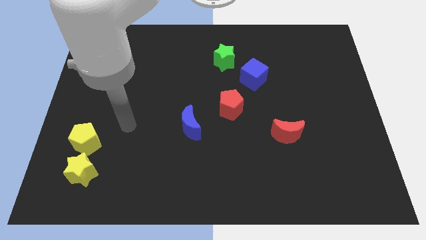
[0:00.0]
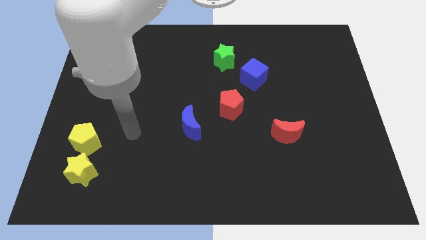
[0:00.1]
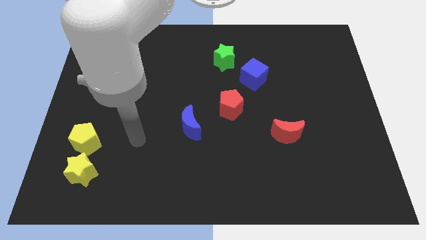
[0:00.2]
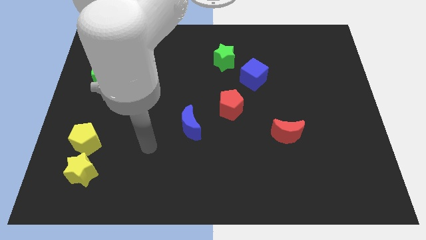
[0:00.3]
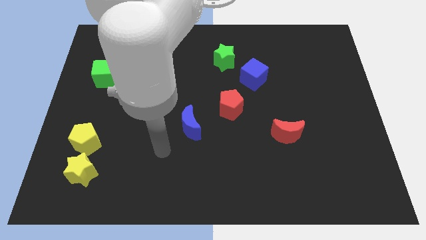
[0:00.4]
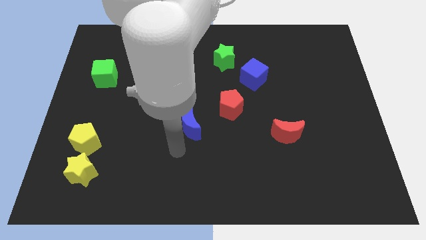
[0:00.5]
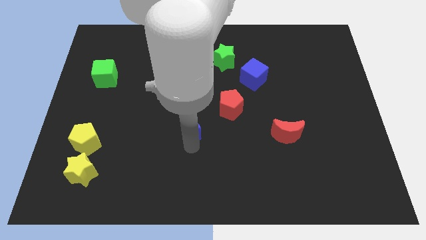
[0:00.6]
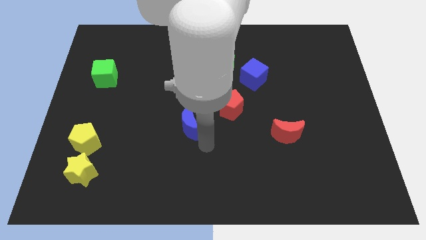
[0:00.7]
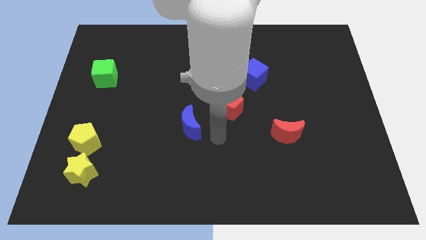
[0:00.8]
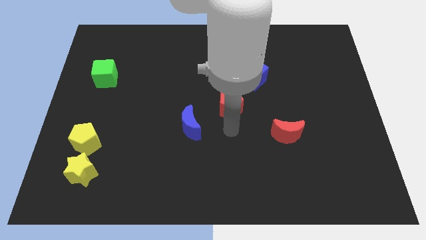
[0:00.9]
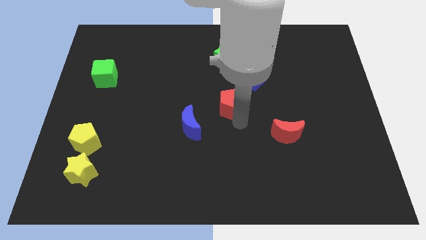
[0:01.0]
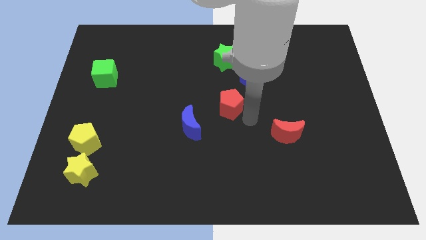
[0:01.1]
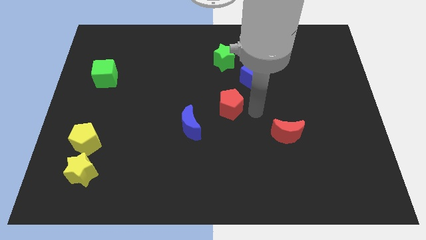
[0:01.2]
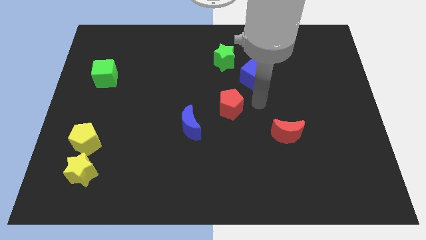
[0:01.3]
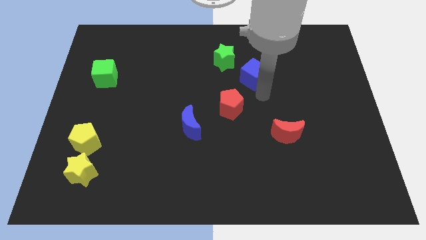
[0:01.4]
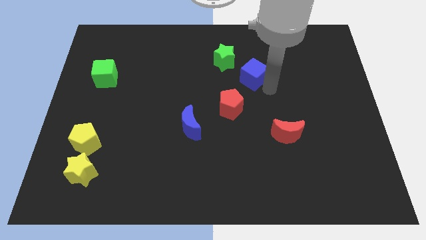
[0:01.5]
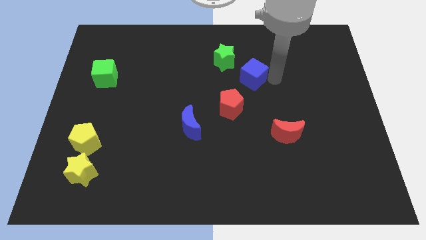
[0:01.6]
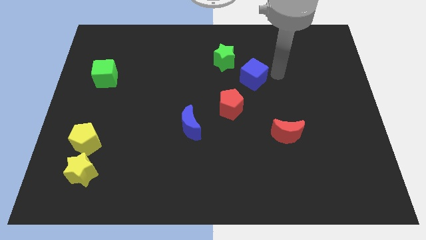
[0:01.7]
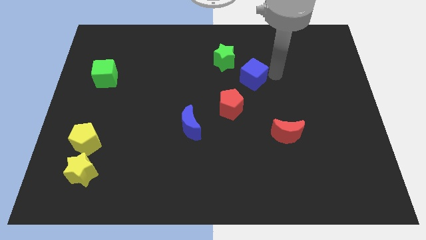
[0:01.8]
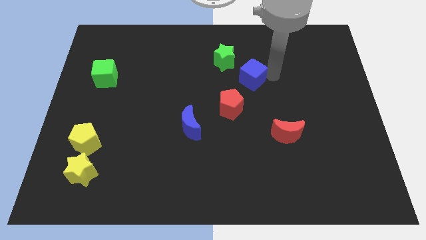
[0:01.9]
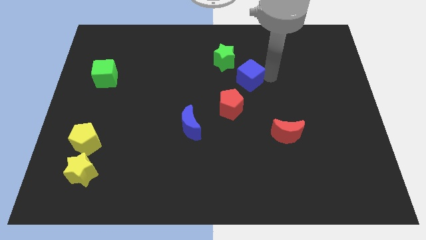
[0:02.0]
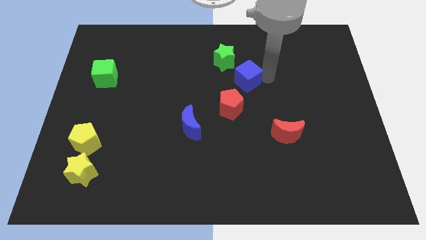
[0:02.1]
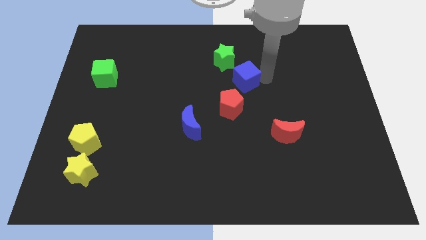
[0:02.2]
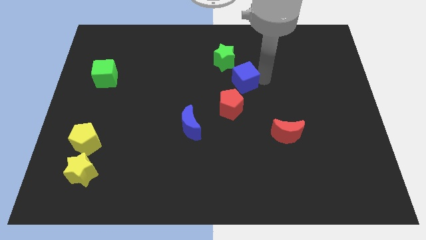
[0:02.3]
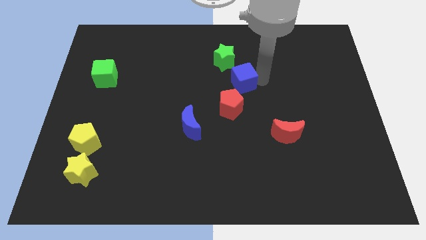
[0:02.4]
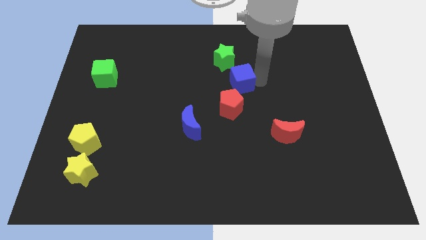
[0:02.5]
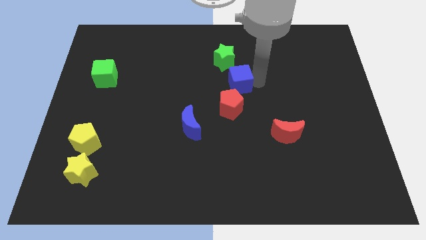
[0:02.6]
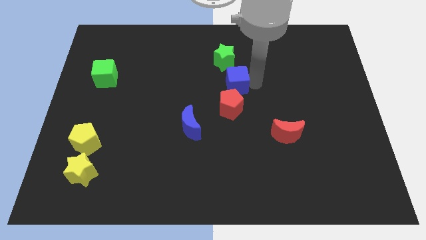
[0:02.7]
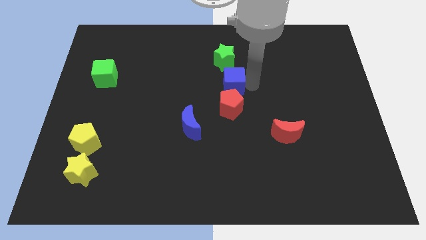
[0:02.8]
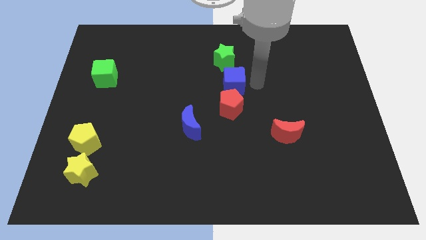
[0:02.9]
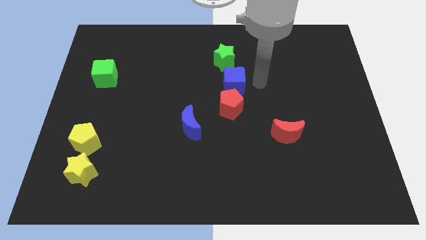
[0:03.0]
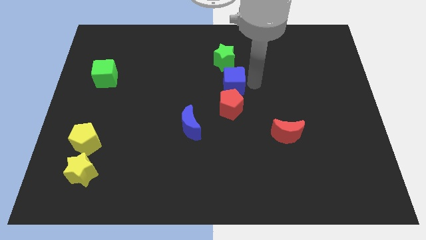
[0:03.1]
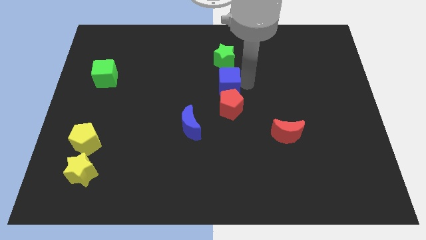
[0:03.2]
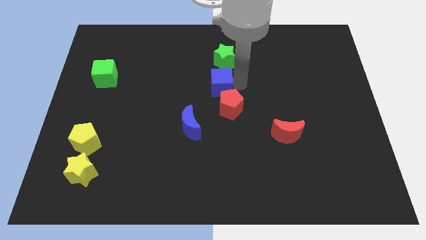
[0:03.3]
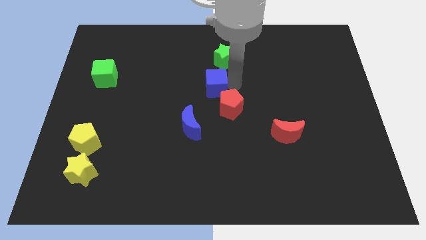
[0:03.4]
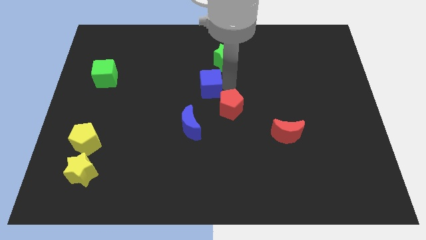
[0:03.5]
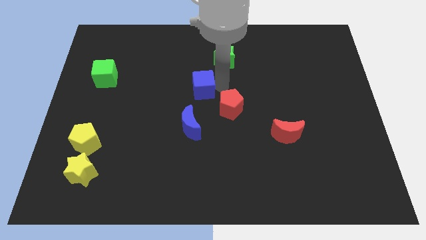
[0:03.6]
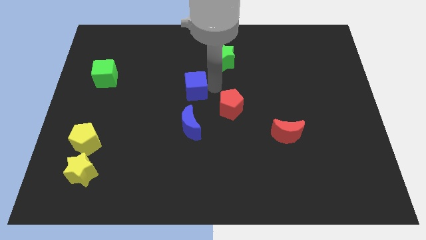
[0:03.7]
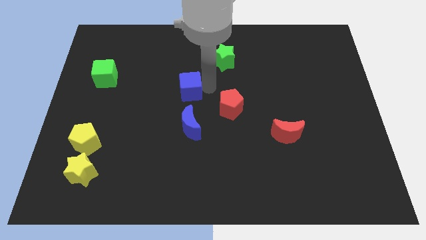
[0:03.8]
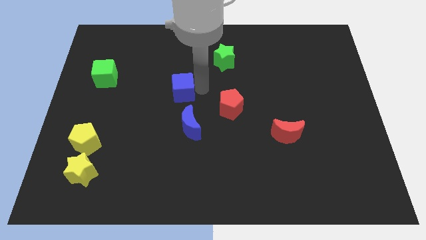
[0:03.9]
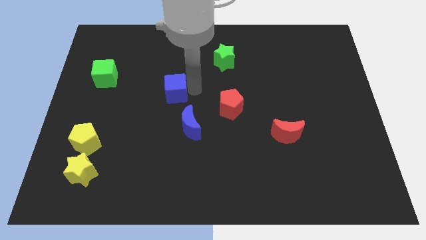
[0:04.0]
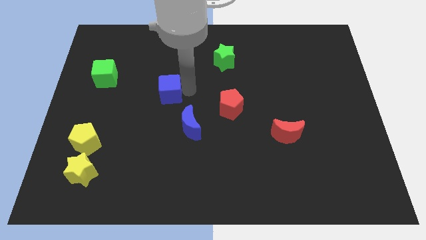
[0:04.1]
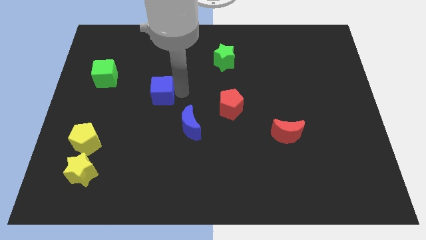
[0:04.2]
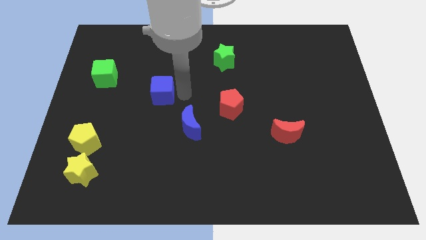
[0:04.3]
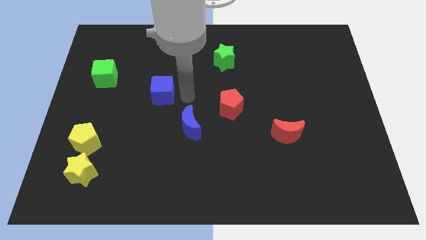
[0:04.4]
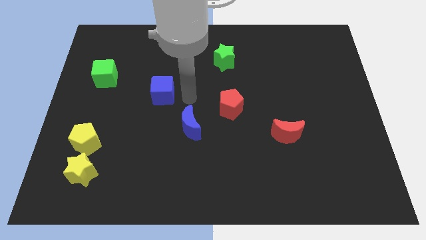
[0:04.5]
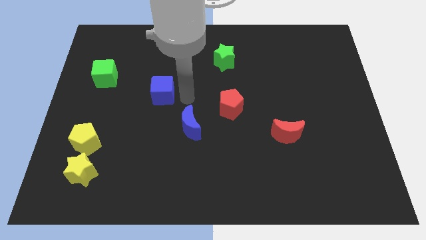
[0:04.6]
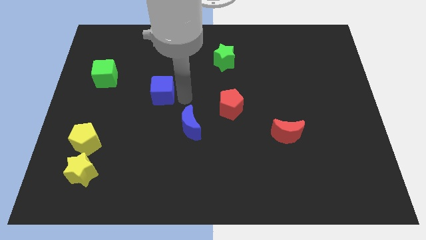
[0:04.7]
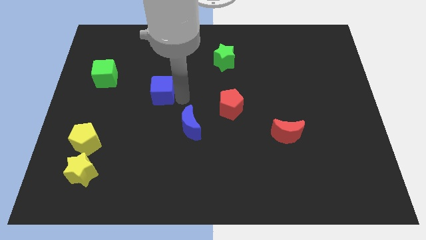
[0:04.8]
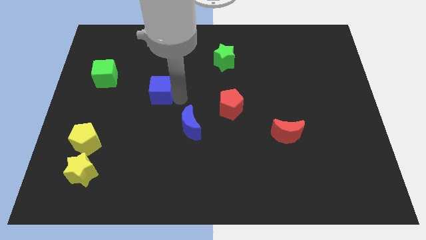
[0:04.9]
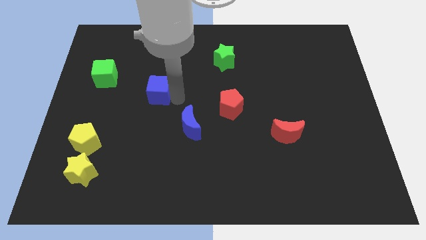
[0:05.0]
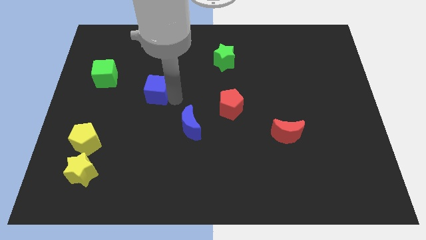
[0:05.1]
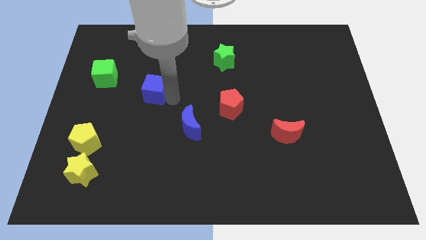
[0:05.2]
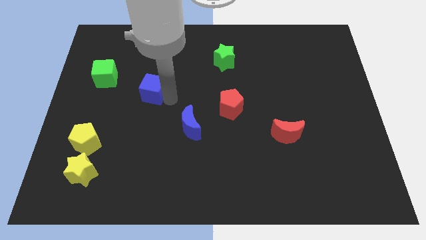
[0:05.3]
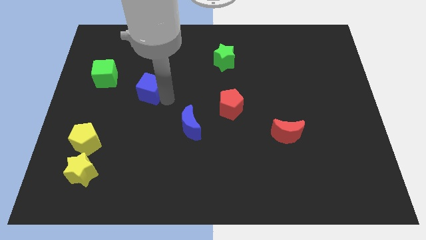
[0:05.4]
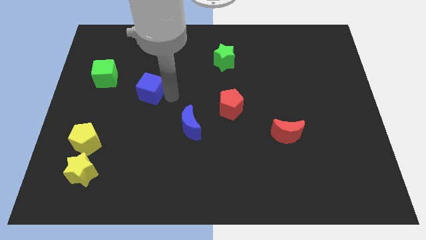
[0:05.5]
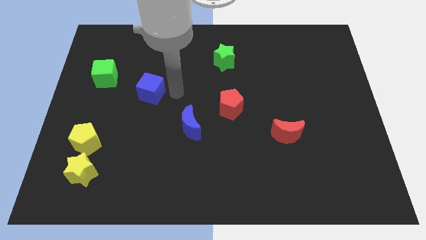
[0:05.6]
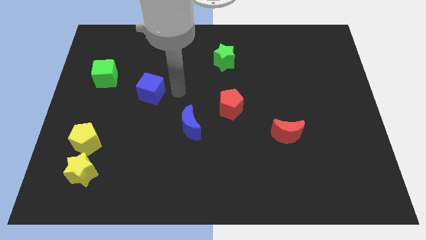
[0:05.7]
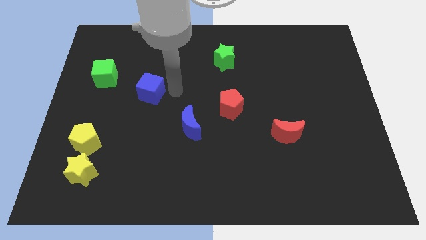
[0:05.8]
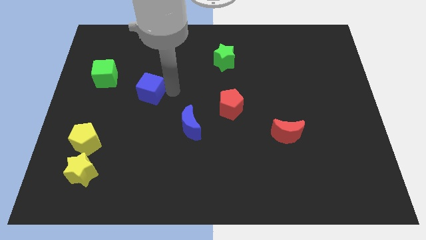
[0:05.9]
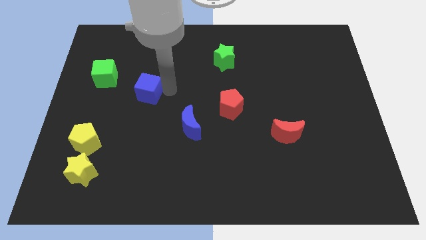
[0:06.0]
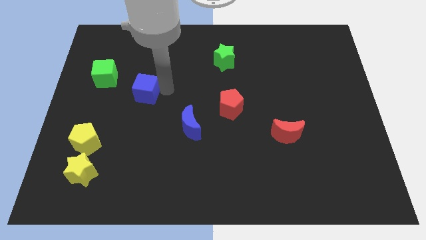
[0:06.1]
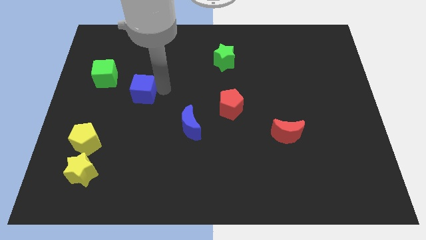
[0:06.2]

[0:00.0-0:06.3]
put the blue cube to the bottom right of the green cube

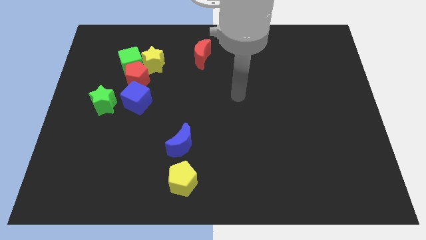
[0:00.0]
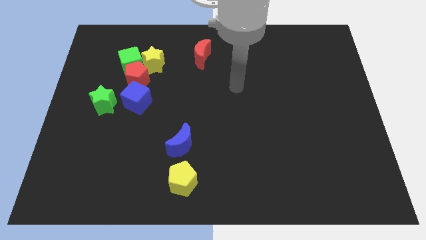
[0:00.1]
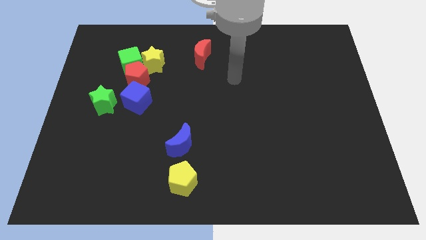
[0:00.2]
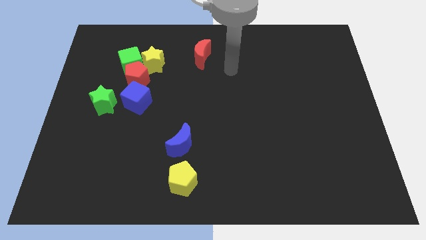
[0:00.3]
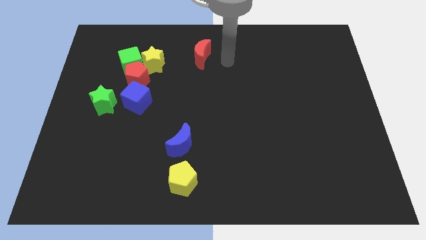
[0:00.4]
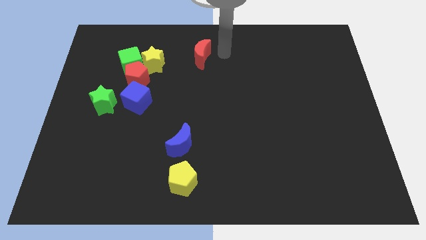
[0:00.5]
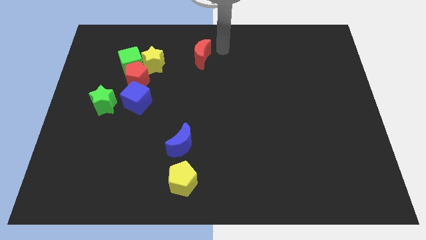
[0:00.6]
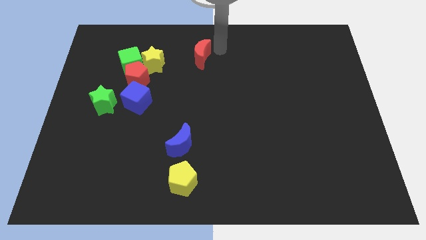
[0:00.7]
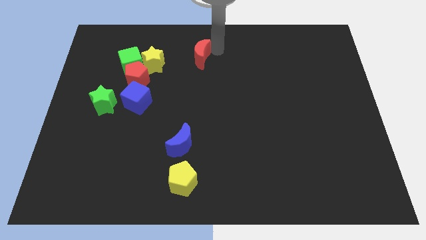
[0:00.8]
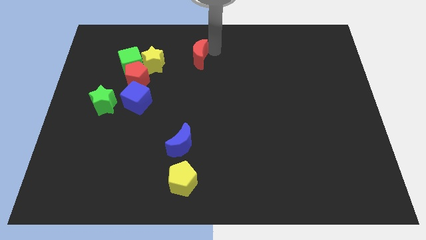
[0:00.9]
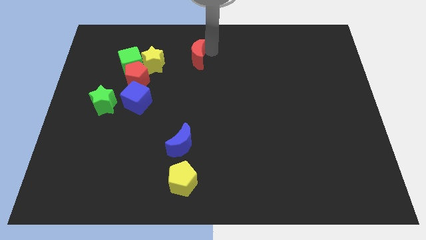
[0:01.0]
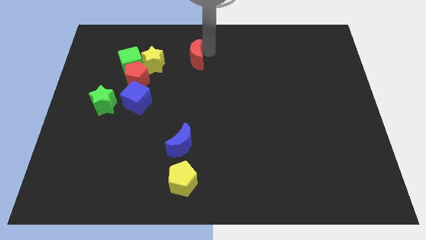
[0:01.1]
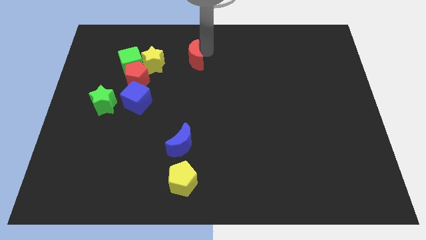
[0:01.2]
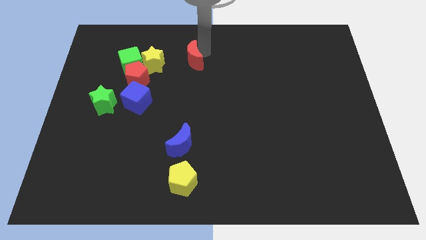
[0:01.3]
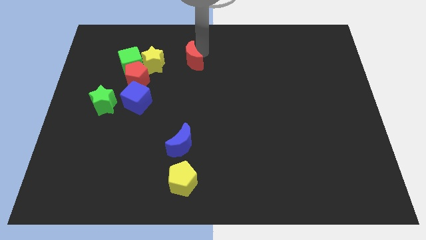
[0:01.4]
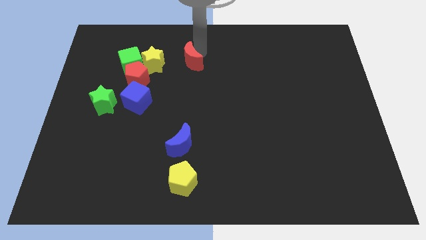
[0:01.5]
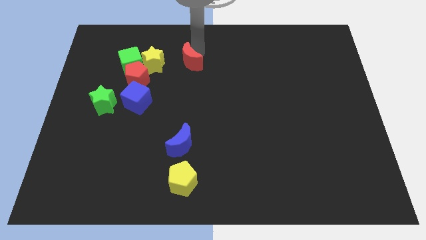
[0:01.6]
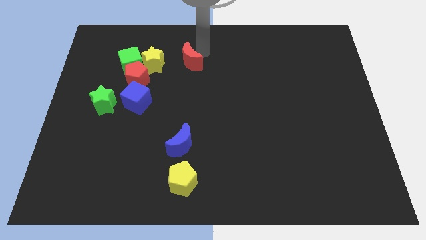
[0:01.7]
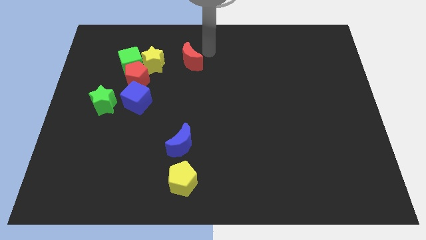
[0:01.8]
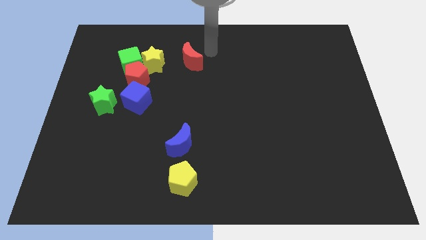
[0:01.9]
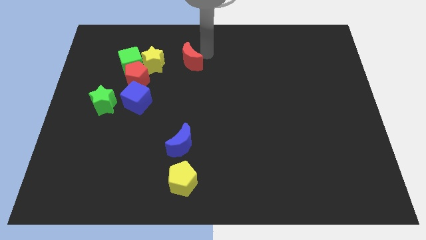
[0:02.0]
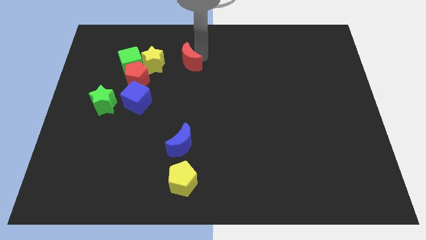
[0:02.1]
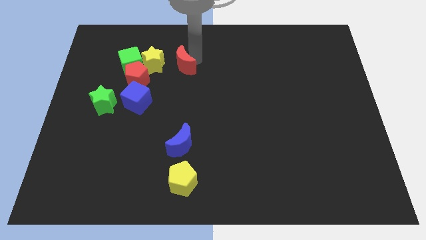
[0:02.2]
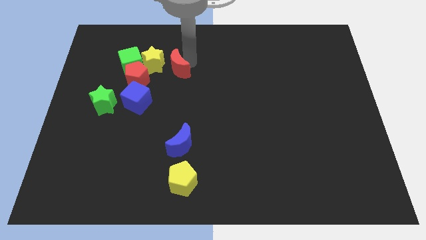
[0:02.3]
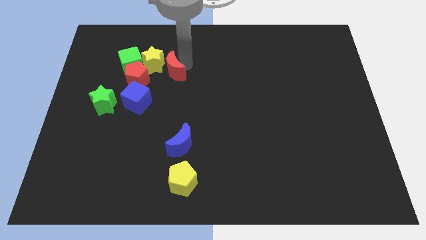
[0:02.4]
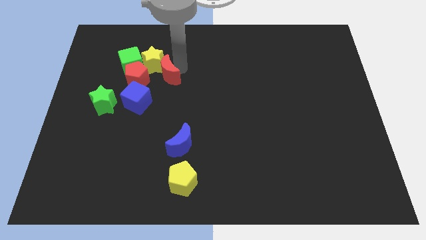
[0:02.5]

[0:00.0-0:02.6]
slide the red moon diagonally down and to the right of the green cube
